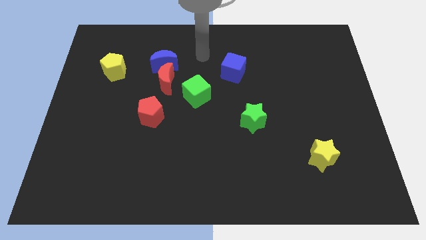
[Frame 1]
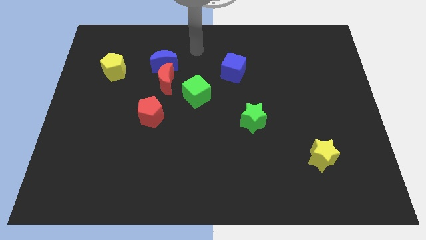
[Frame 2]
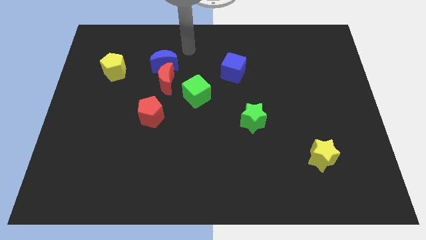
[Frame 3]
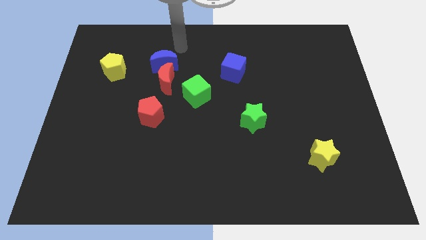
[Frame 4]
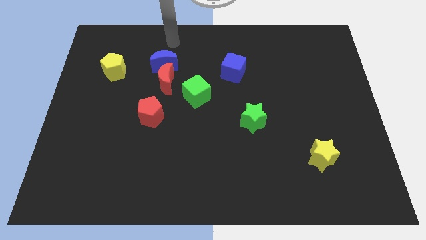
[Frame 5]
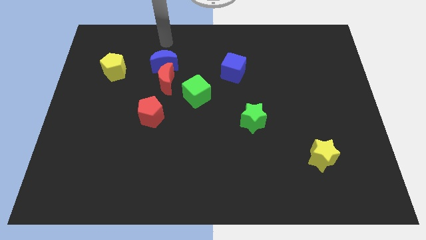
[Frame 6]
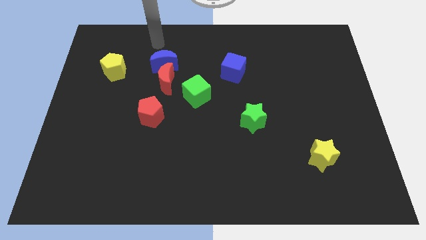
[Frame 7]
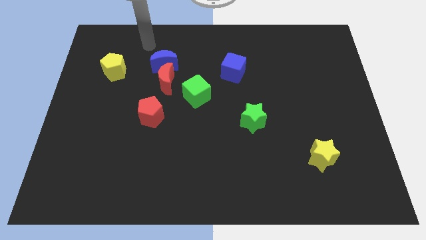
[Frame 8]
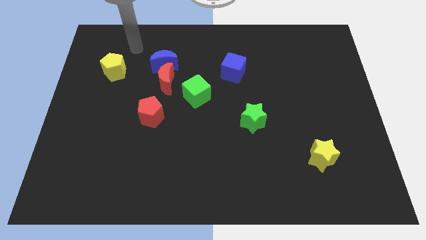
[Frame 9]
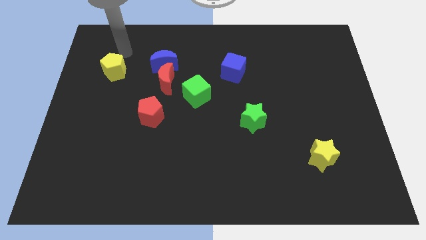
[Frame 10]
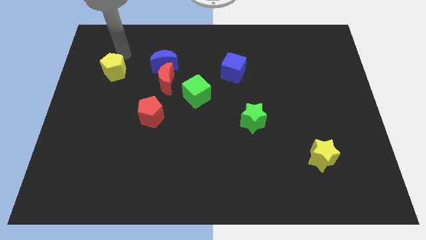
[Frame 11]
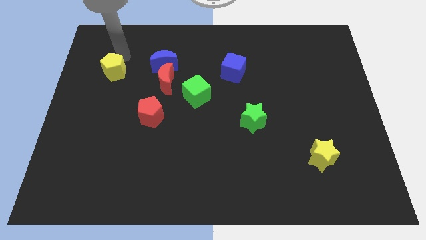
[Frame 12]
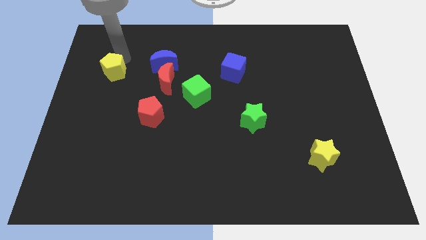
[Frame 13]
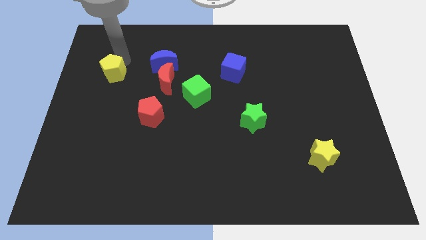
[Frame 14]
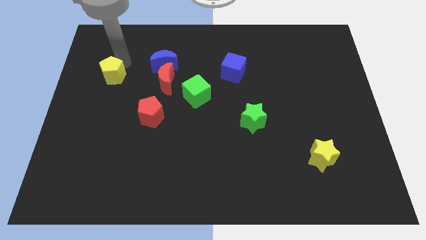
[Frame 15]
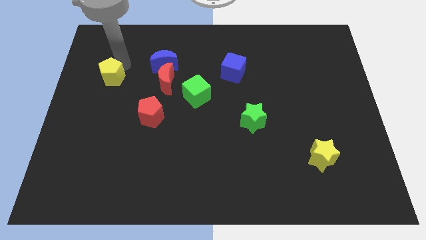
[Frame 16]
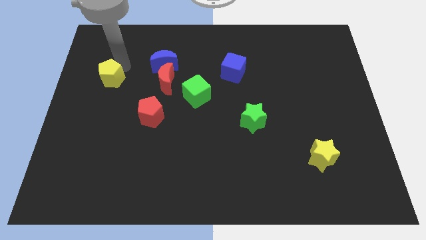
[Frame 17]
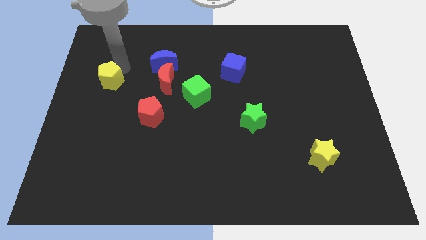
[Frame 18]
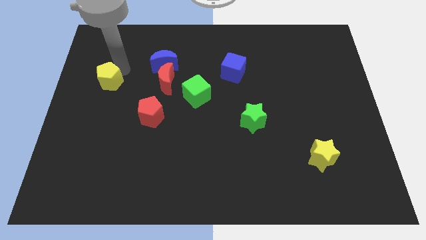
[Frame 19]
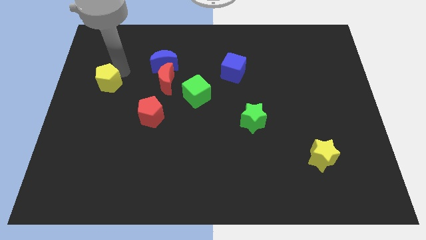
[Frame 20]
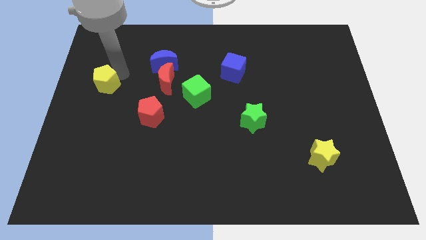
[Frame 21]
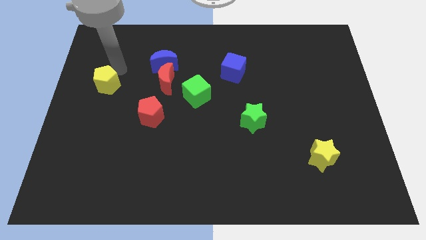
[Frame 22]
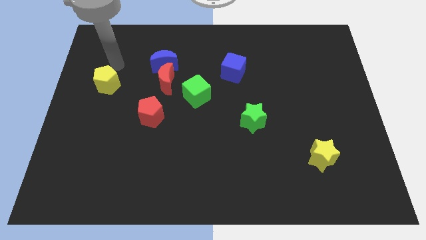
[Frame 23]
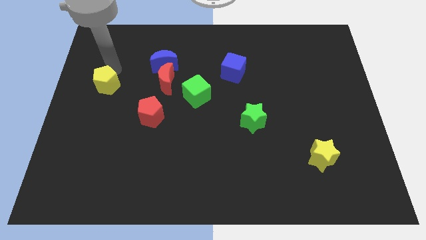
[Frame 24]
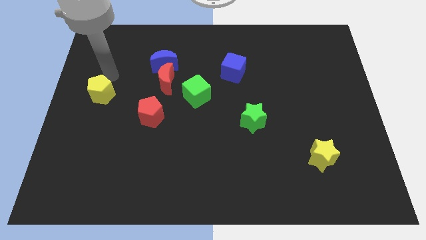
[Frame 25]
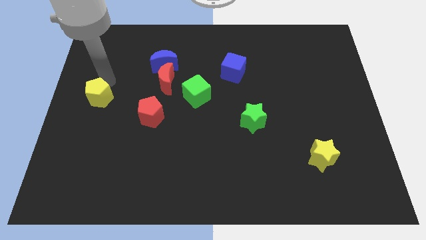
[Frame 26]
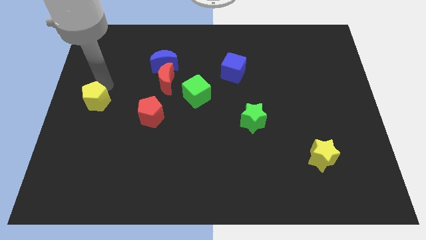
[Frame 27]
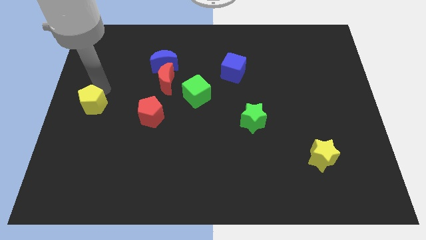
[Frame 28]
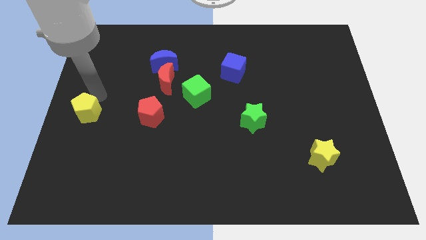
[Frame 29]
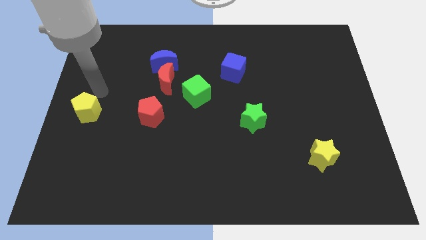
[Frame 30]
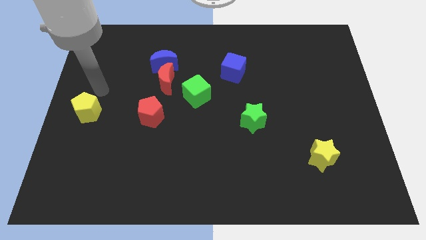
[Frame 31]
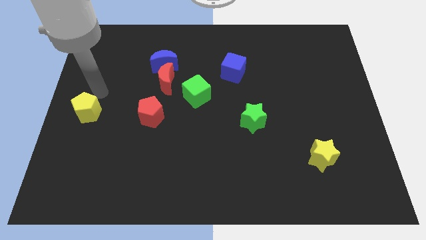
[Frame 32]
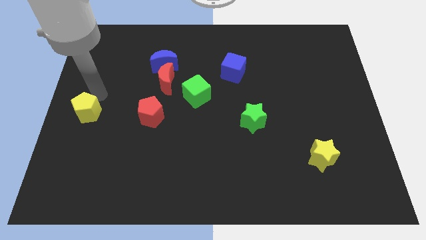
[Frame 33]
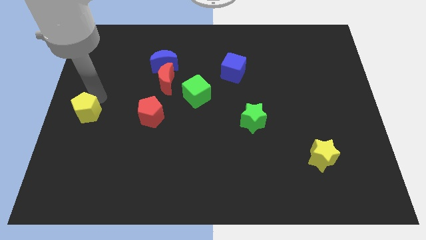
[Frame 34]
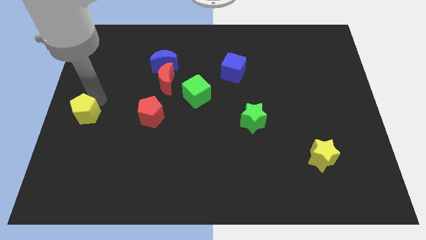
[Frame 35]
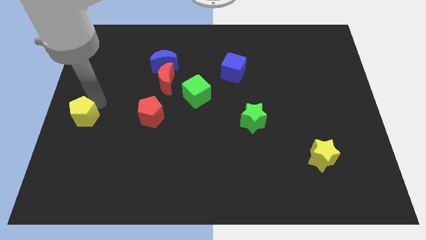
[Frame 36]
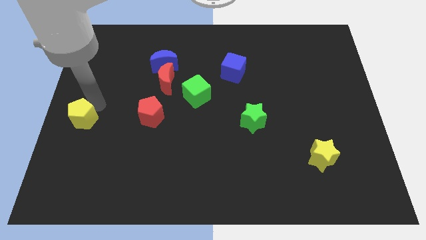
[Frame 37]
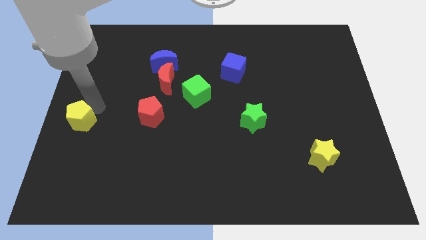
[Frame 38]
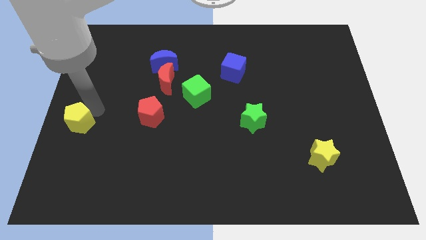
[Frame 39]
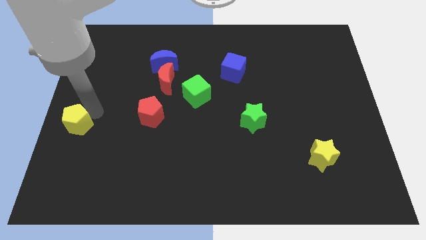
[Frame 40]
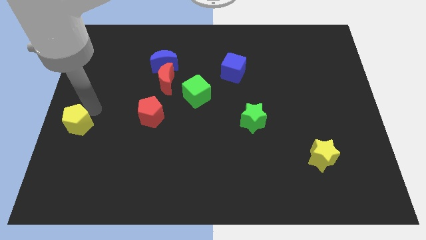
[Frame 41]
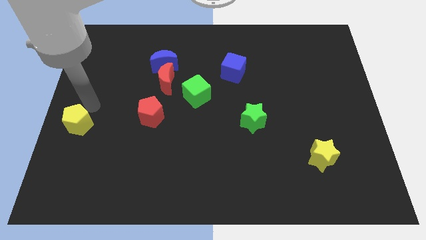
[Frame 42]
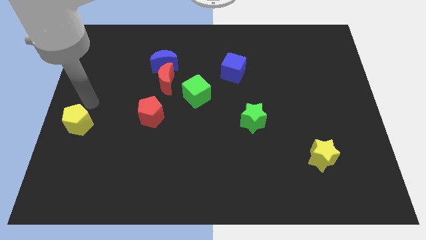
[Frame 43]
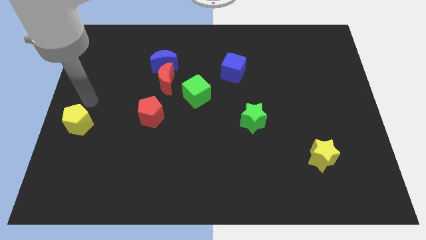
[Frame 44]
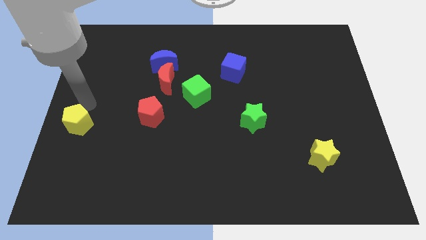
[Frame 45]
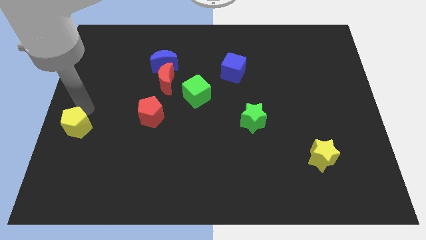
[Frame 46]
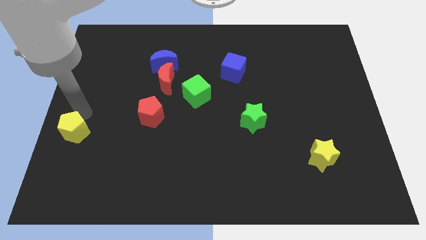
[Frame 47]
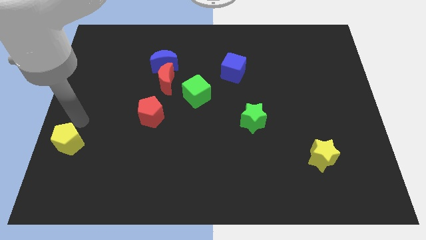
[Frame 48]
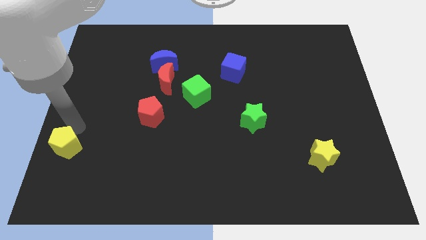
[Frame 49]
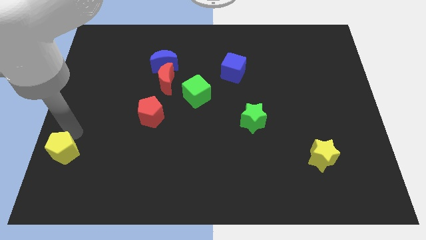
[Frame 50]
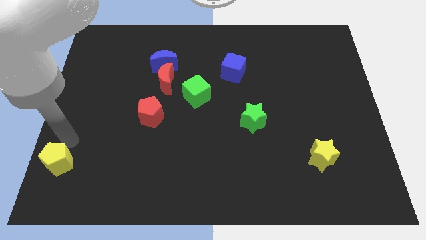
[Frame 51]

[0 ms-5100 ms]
move the yellow pentagon to the bottom left

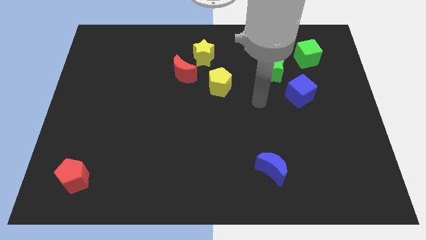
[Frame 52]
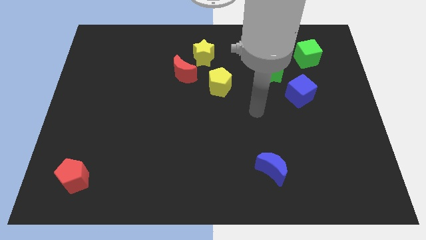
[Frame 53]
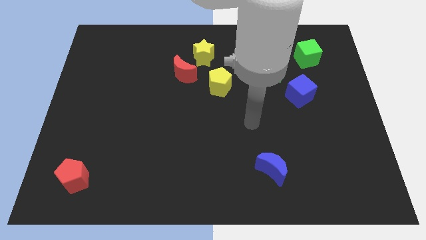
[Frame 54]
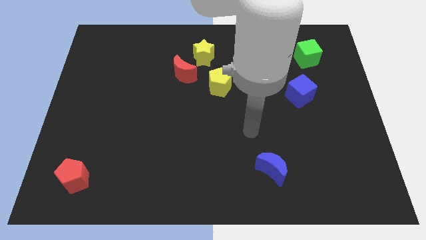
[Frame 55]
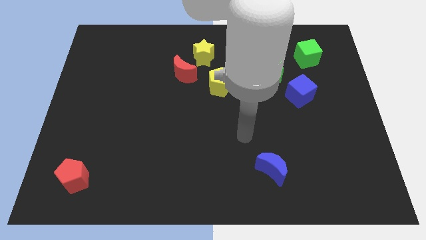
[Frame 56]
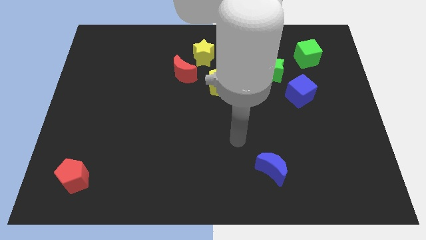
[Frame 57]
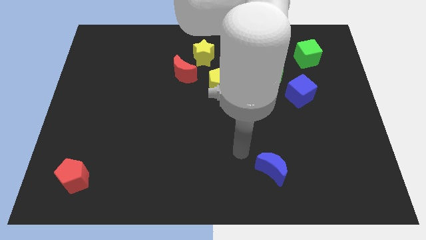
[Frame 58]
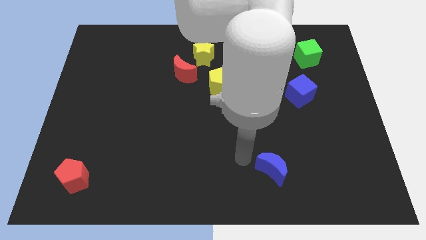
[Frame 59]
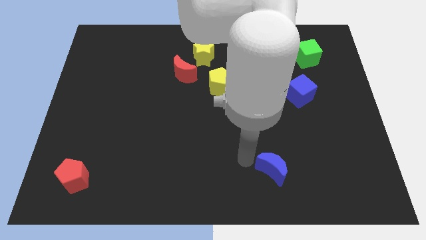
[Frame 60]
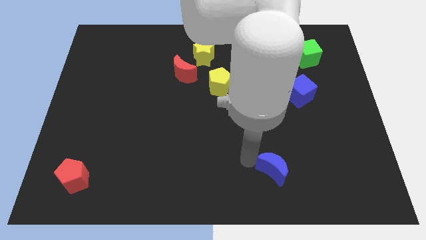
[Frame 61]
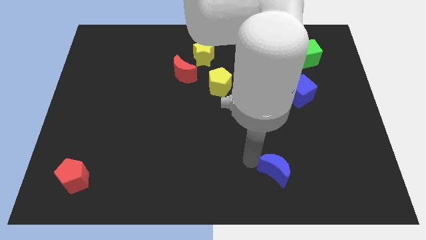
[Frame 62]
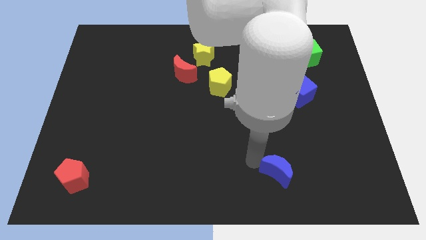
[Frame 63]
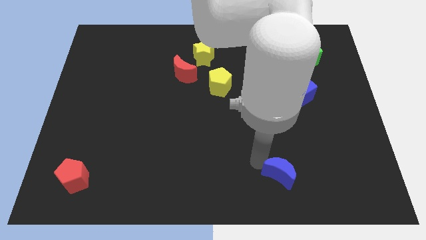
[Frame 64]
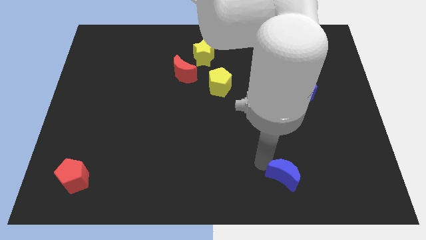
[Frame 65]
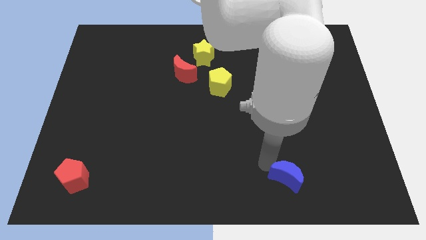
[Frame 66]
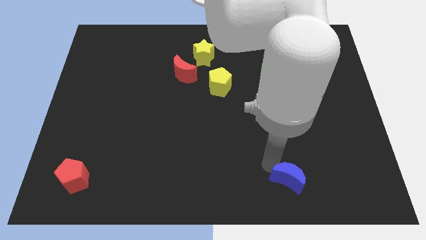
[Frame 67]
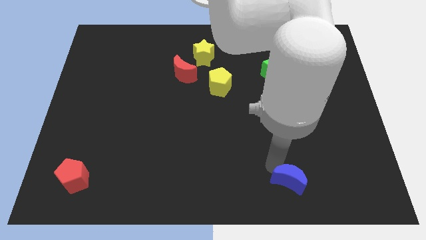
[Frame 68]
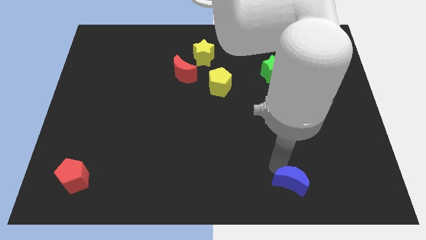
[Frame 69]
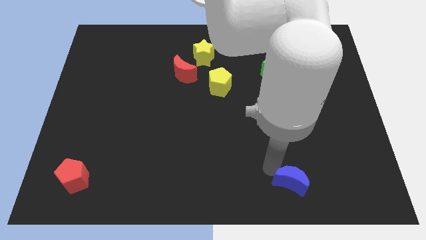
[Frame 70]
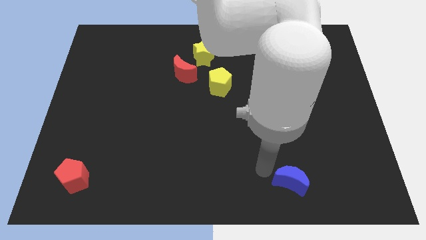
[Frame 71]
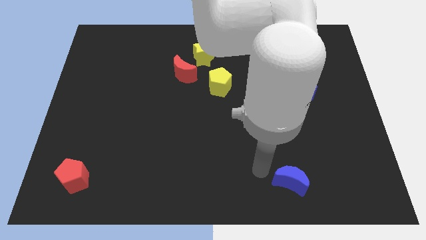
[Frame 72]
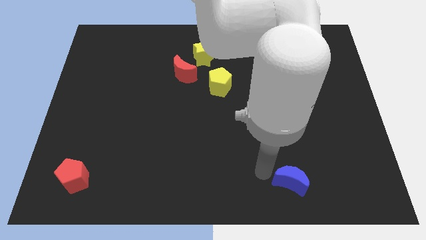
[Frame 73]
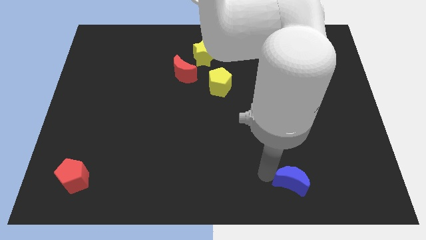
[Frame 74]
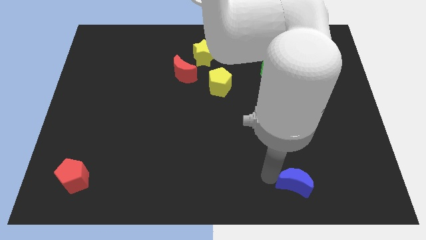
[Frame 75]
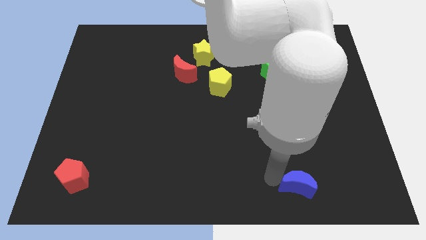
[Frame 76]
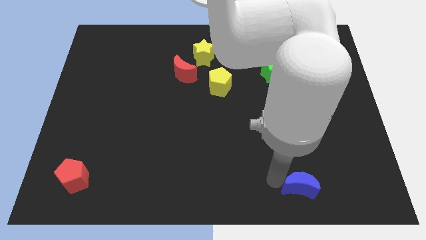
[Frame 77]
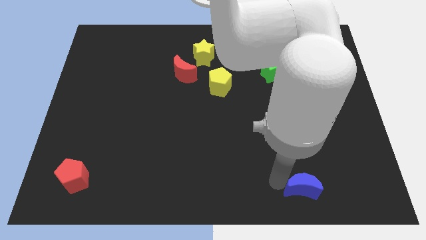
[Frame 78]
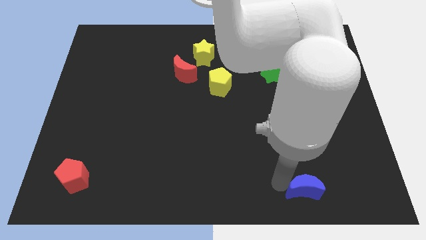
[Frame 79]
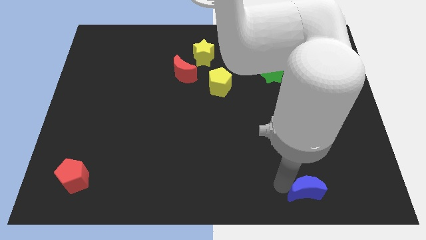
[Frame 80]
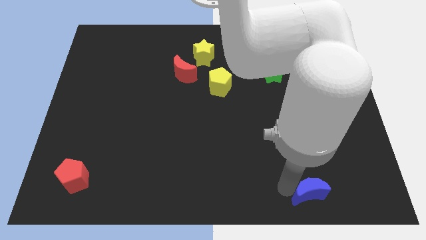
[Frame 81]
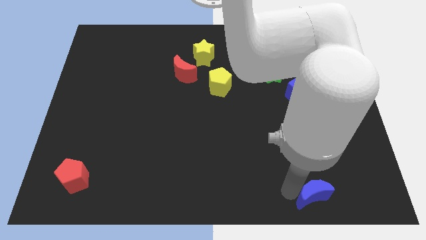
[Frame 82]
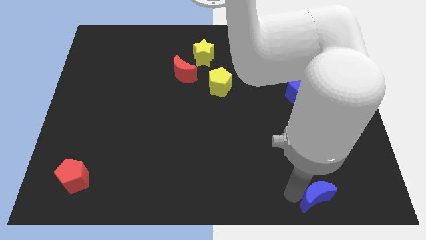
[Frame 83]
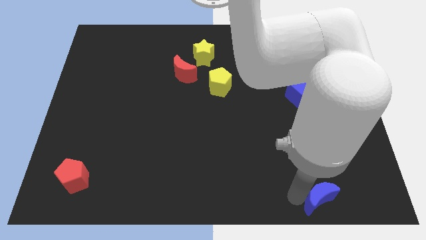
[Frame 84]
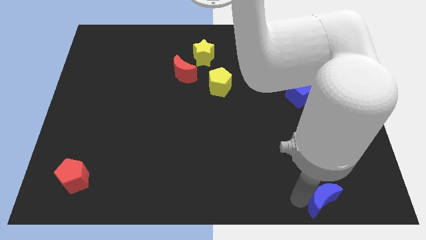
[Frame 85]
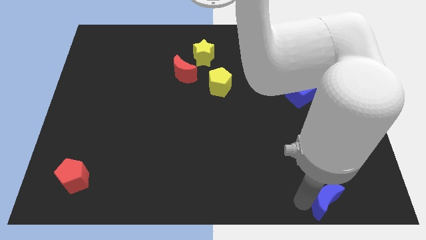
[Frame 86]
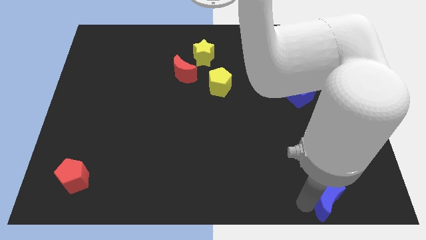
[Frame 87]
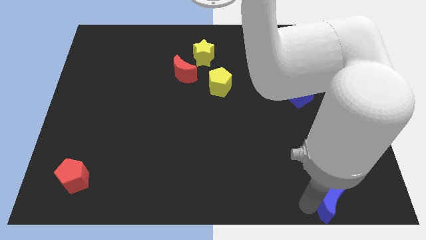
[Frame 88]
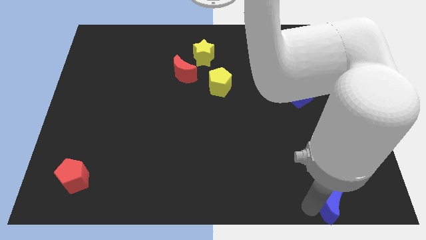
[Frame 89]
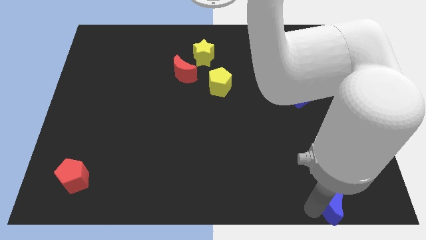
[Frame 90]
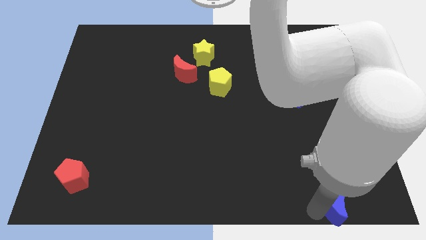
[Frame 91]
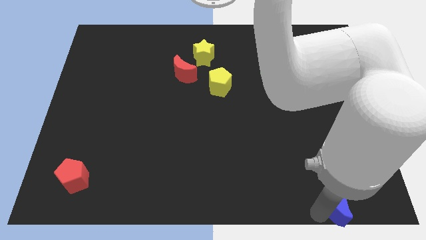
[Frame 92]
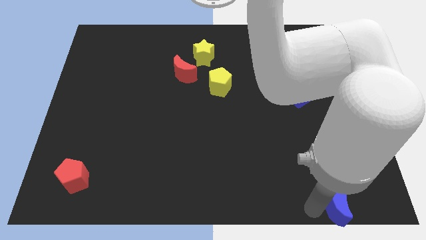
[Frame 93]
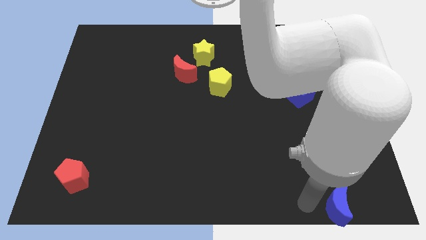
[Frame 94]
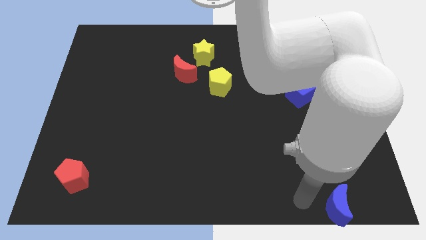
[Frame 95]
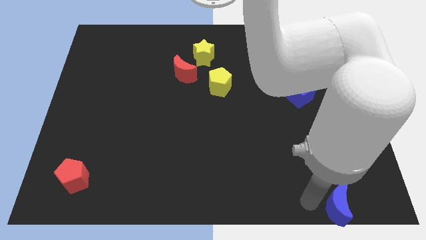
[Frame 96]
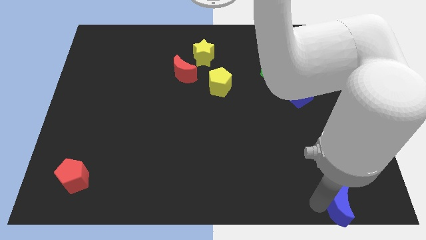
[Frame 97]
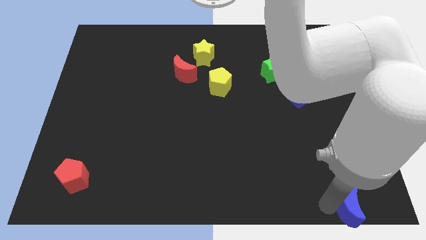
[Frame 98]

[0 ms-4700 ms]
slide the blue moon to the lower right corner
